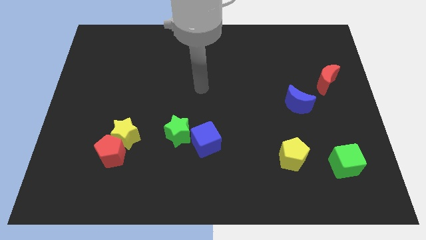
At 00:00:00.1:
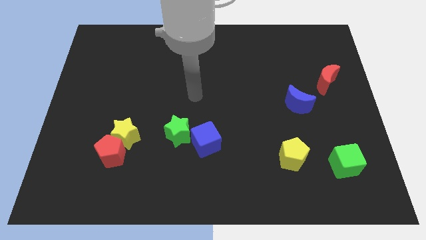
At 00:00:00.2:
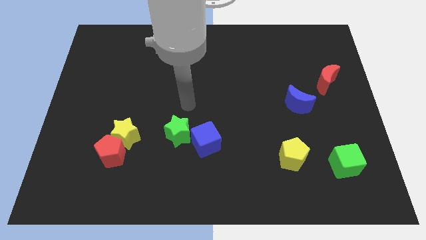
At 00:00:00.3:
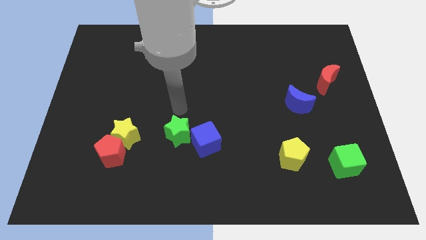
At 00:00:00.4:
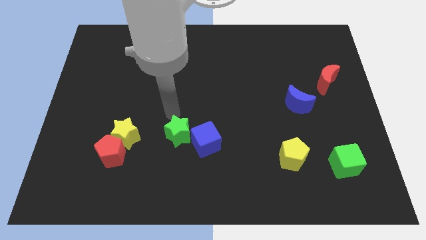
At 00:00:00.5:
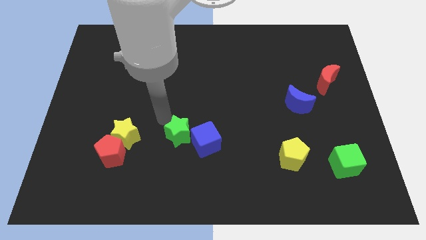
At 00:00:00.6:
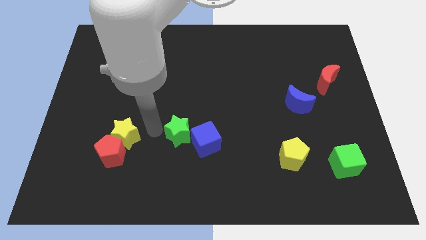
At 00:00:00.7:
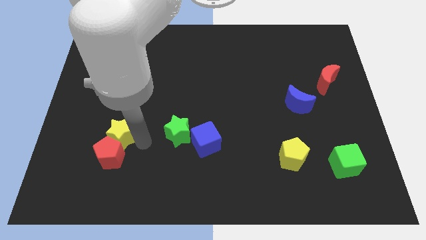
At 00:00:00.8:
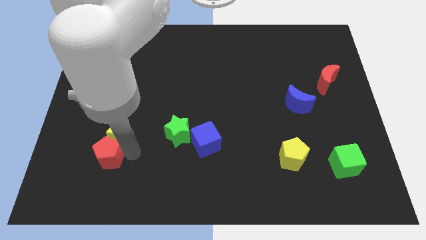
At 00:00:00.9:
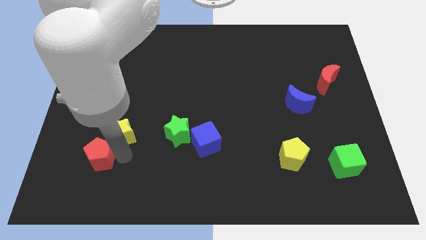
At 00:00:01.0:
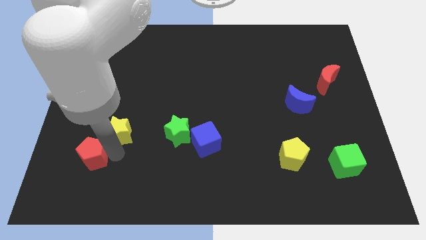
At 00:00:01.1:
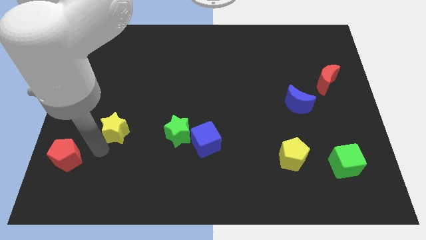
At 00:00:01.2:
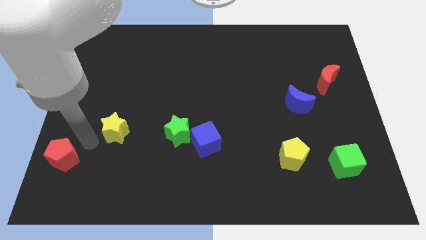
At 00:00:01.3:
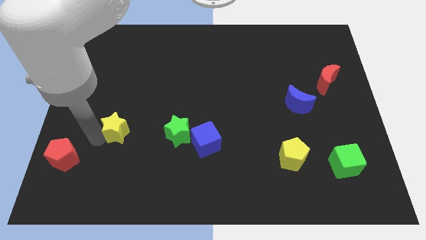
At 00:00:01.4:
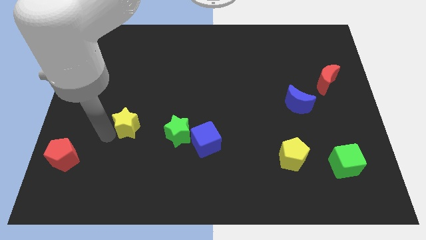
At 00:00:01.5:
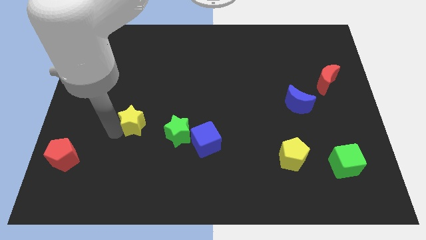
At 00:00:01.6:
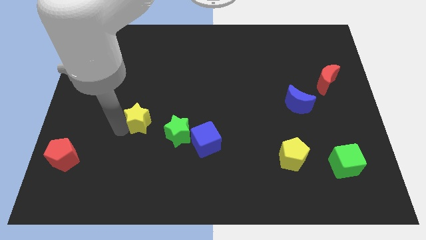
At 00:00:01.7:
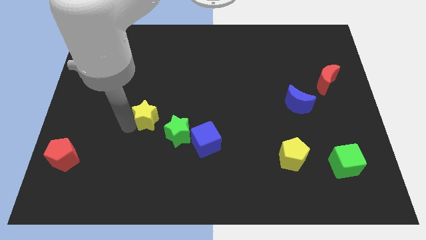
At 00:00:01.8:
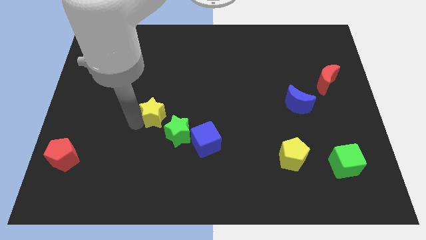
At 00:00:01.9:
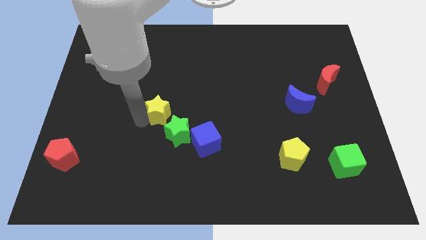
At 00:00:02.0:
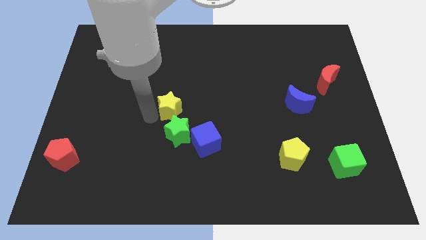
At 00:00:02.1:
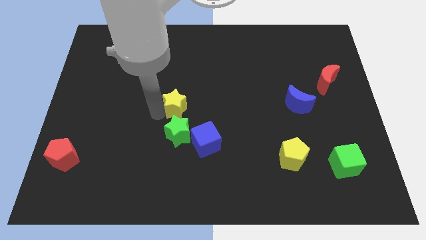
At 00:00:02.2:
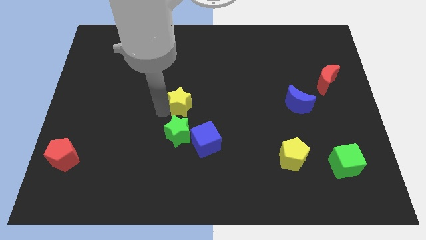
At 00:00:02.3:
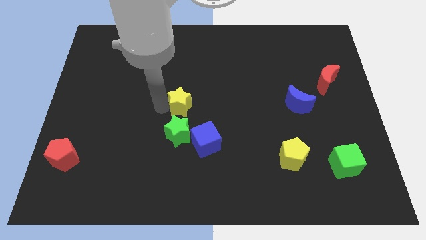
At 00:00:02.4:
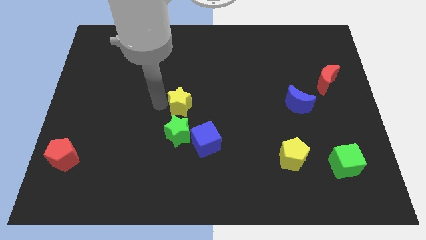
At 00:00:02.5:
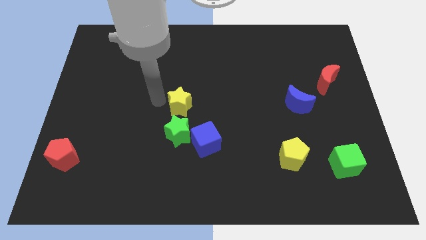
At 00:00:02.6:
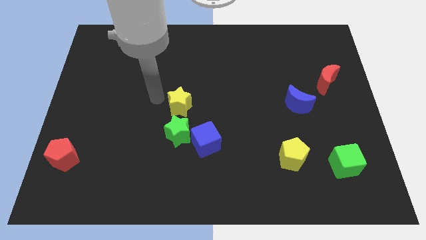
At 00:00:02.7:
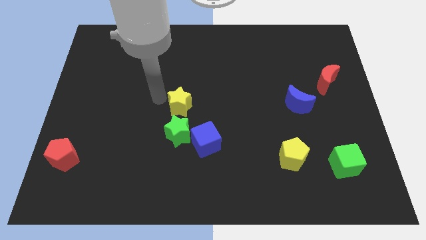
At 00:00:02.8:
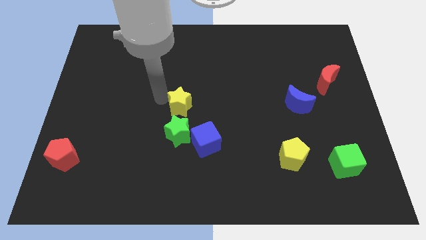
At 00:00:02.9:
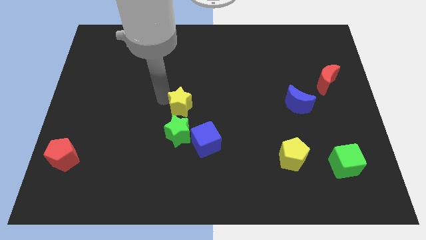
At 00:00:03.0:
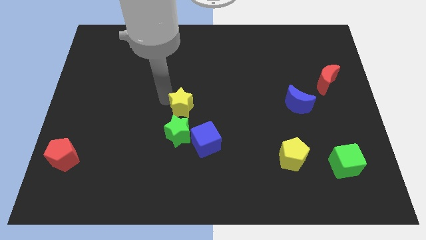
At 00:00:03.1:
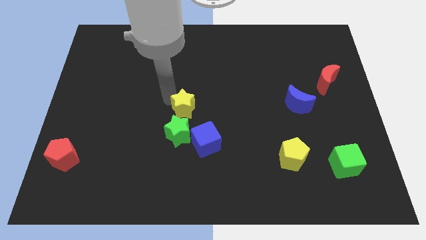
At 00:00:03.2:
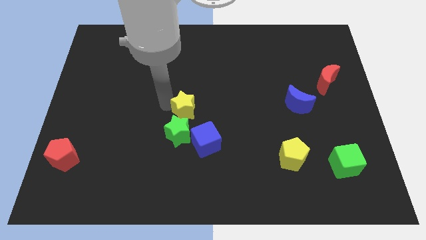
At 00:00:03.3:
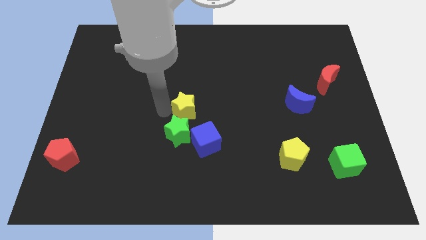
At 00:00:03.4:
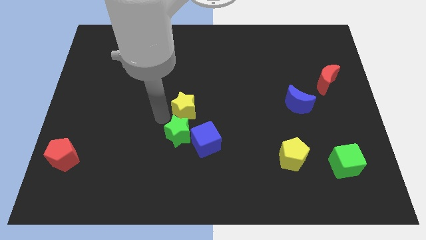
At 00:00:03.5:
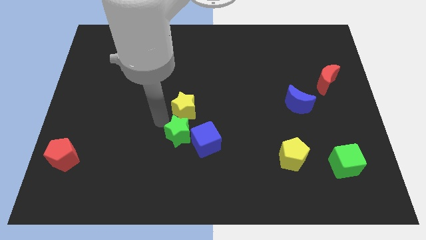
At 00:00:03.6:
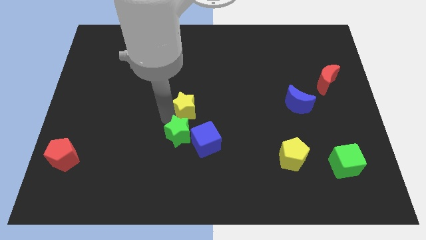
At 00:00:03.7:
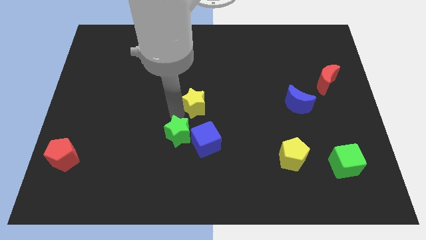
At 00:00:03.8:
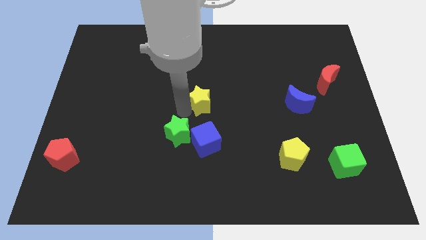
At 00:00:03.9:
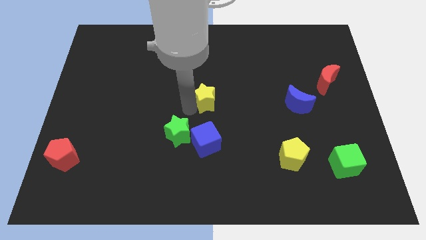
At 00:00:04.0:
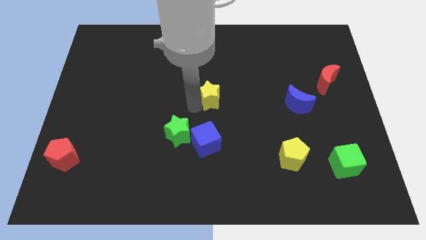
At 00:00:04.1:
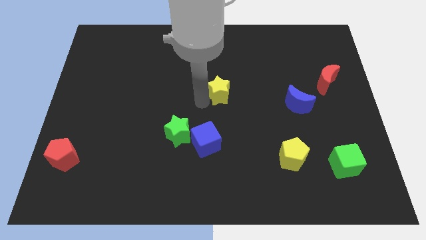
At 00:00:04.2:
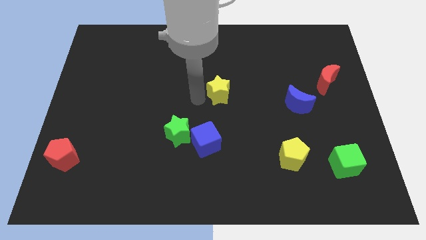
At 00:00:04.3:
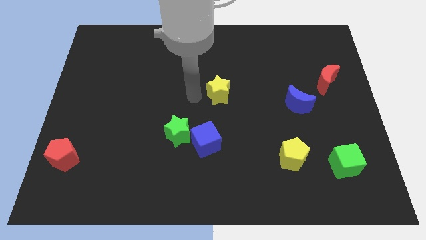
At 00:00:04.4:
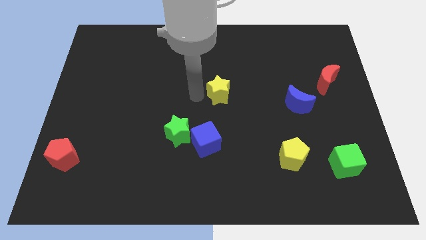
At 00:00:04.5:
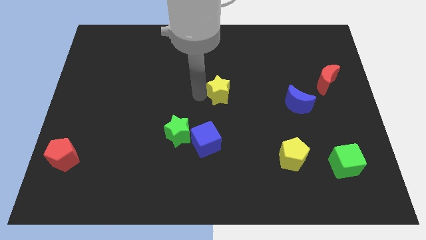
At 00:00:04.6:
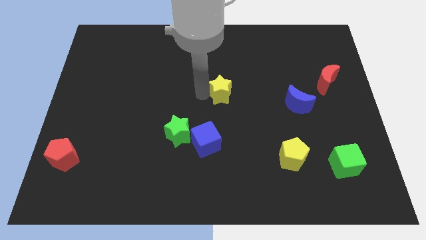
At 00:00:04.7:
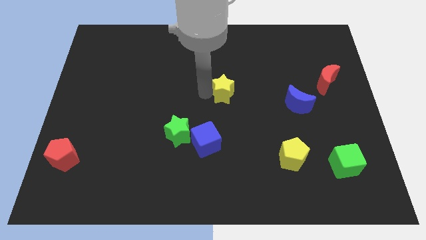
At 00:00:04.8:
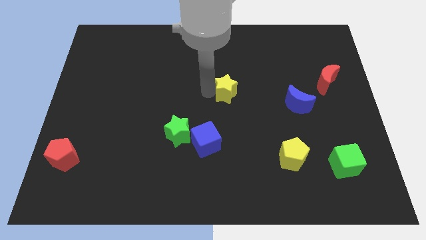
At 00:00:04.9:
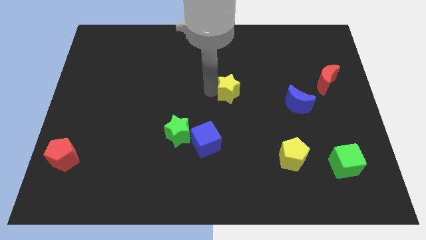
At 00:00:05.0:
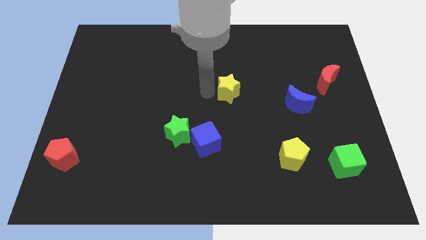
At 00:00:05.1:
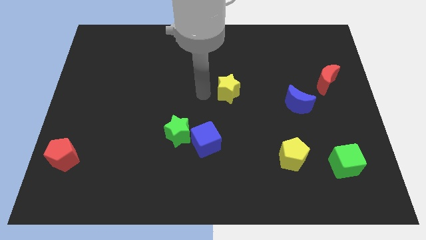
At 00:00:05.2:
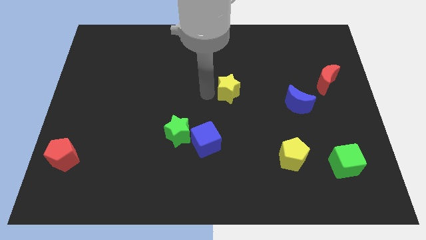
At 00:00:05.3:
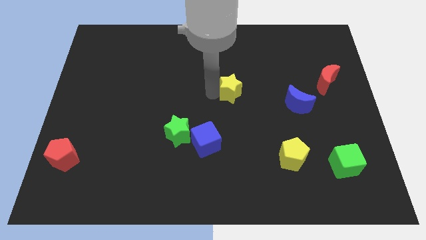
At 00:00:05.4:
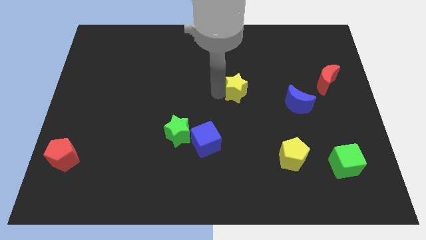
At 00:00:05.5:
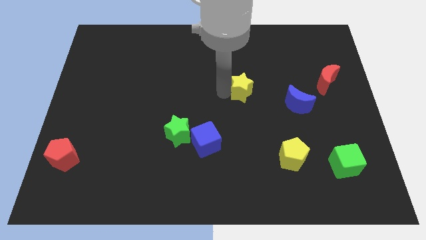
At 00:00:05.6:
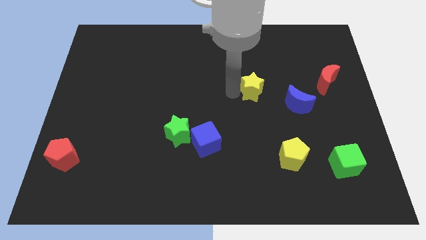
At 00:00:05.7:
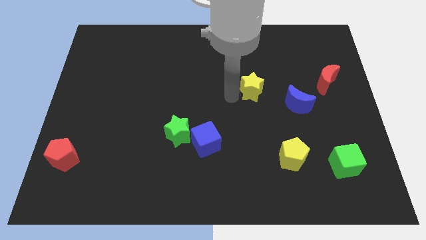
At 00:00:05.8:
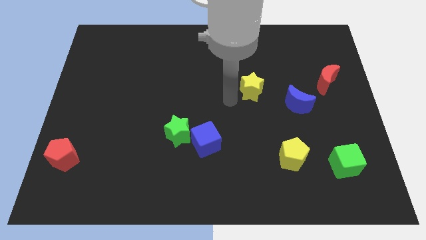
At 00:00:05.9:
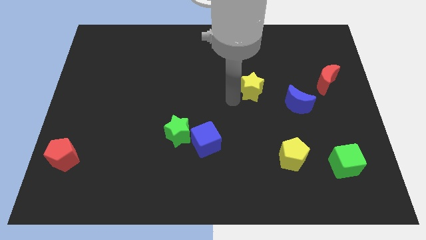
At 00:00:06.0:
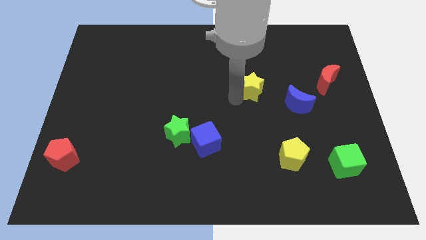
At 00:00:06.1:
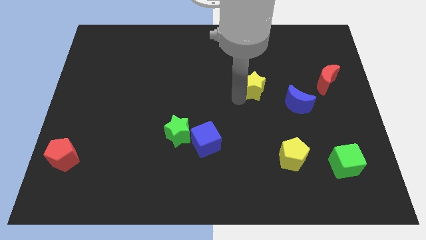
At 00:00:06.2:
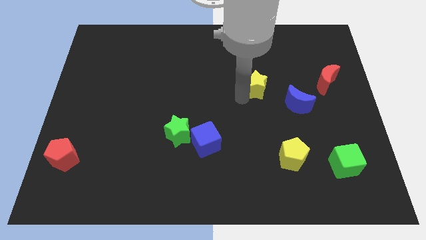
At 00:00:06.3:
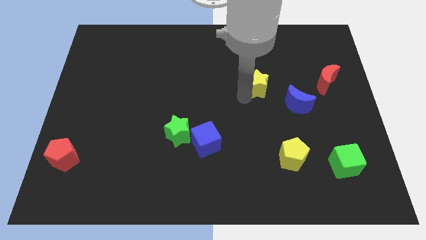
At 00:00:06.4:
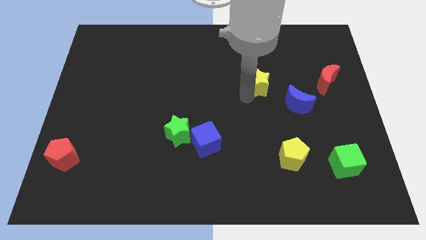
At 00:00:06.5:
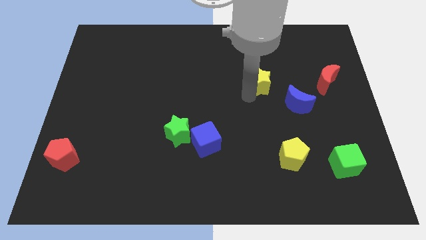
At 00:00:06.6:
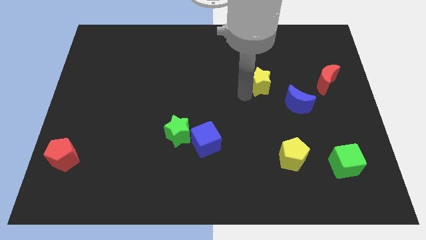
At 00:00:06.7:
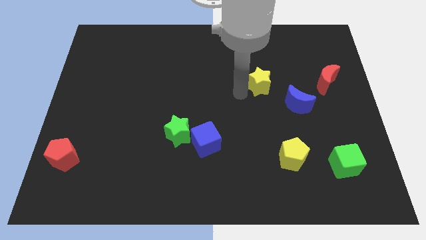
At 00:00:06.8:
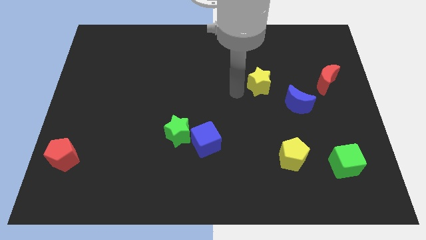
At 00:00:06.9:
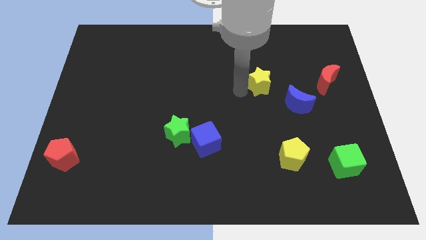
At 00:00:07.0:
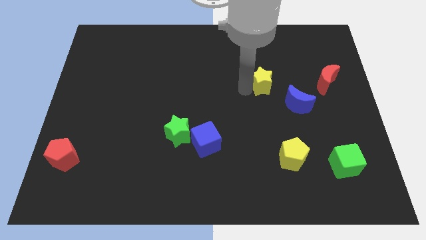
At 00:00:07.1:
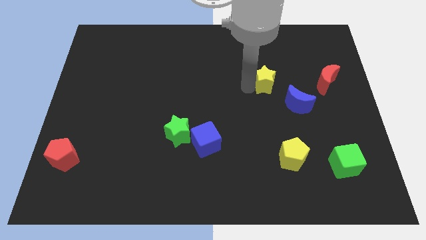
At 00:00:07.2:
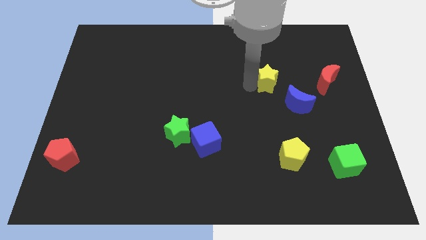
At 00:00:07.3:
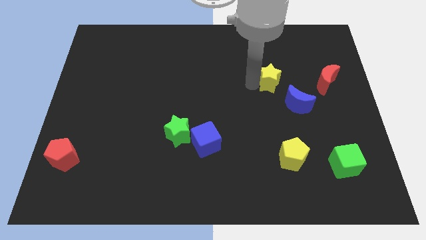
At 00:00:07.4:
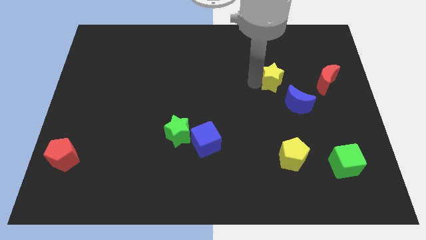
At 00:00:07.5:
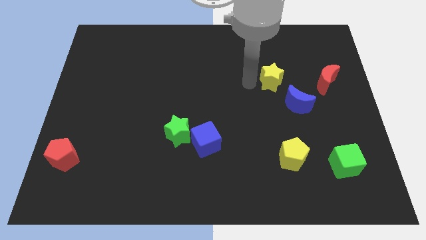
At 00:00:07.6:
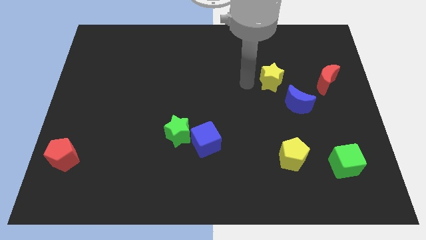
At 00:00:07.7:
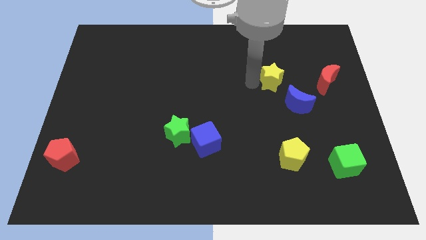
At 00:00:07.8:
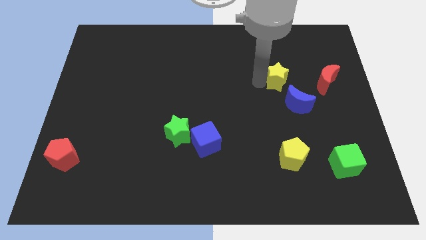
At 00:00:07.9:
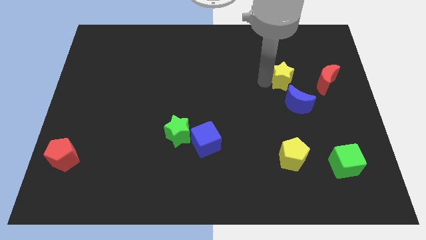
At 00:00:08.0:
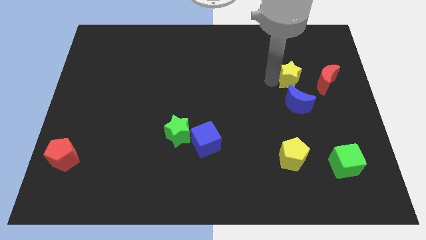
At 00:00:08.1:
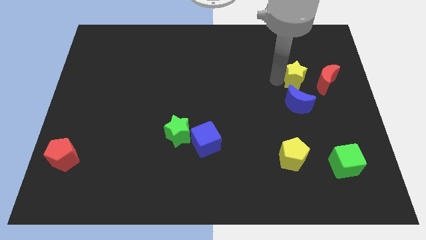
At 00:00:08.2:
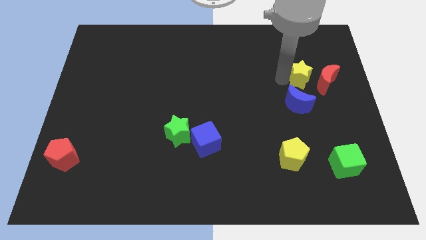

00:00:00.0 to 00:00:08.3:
put the yellow star towards the red moon
